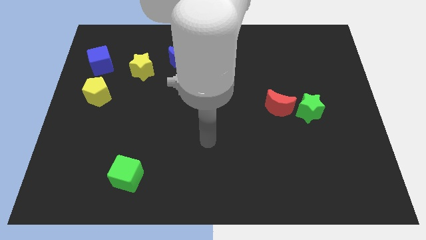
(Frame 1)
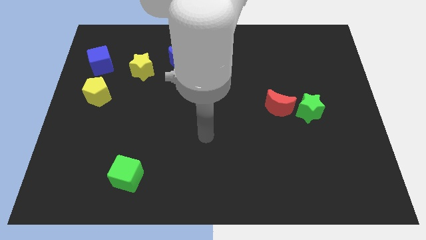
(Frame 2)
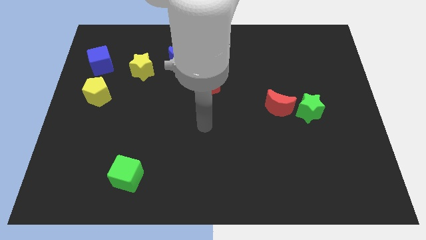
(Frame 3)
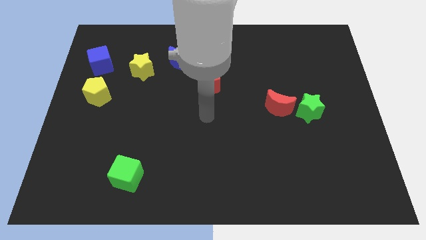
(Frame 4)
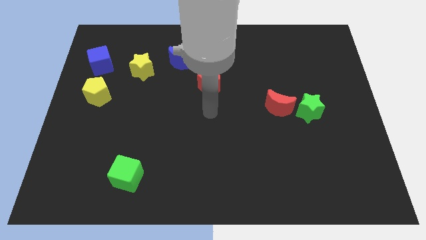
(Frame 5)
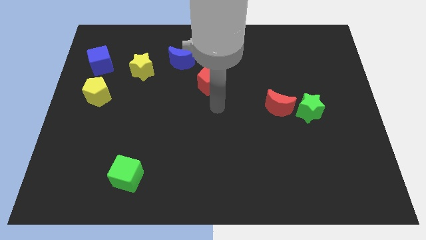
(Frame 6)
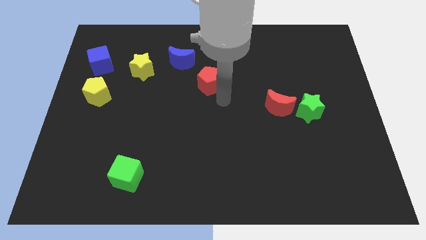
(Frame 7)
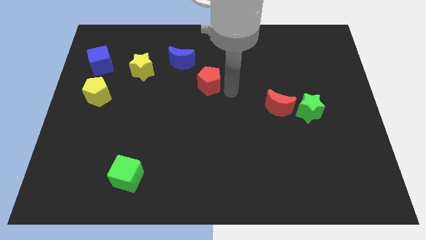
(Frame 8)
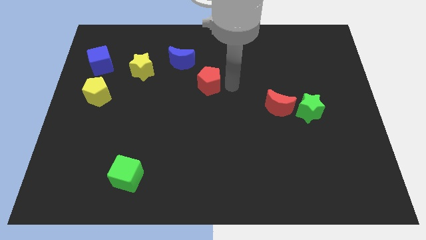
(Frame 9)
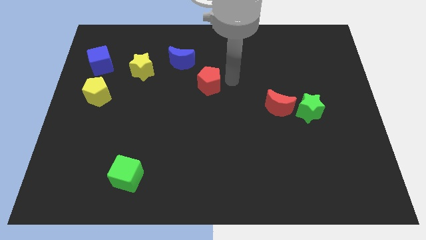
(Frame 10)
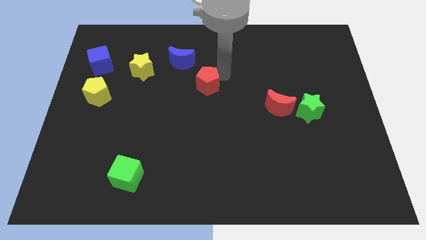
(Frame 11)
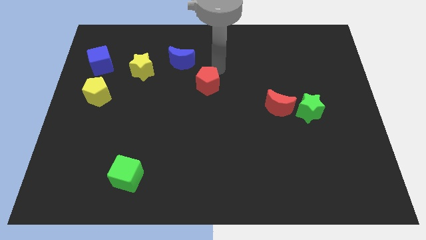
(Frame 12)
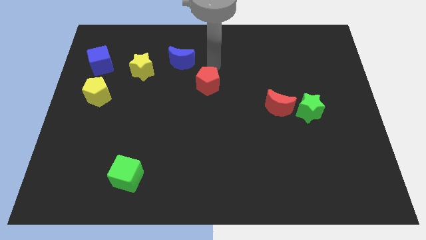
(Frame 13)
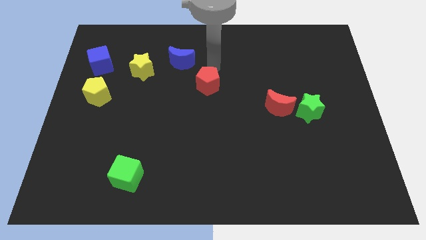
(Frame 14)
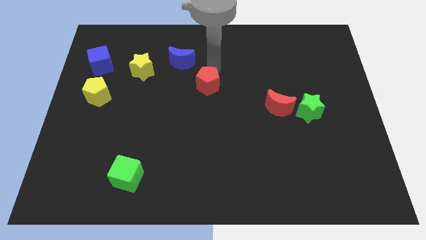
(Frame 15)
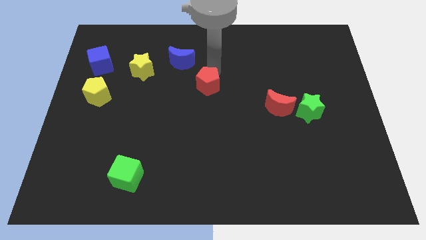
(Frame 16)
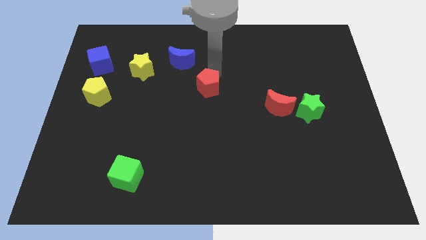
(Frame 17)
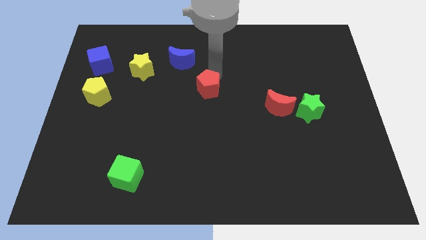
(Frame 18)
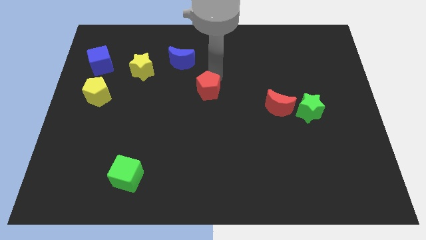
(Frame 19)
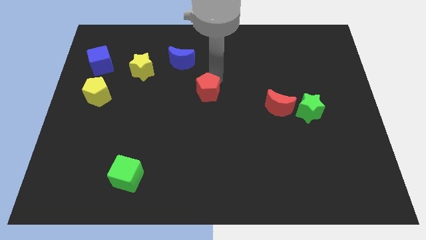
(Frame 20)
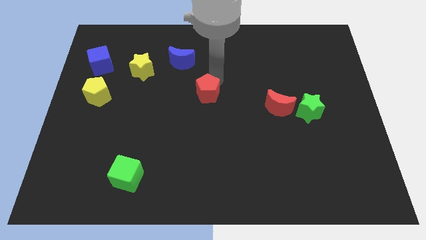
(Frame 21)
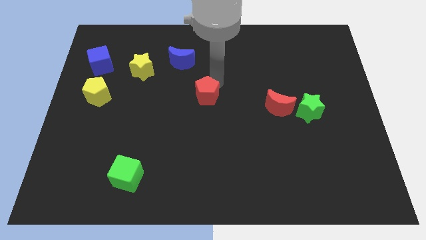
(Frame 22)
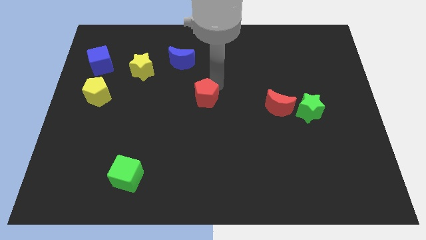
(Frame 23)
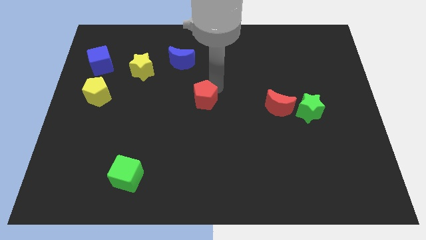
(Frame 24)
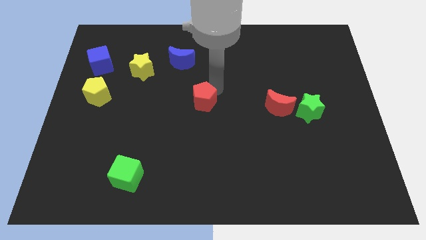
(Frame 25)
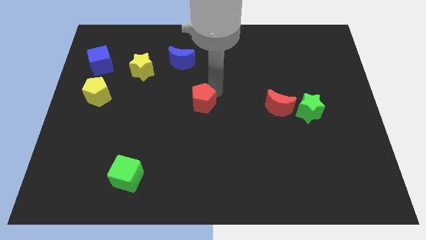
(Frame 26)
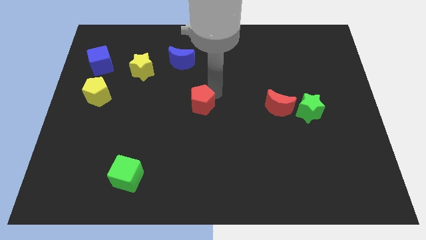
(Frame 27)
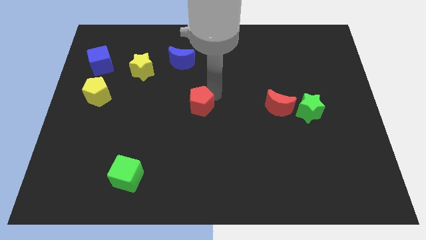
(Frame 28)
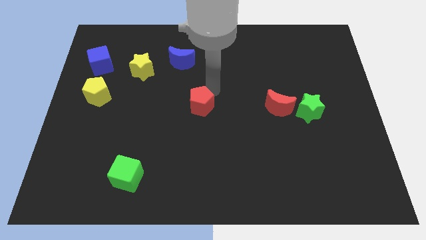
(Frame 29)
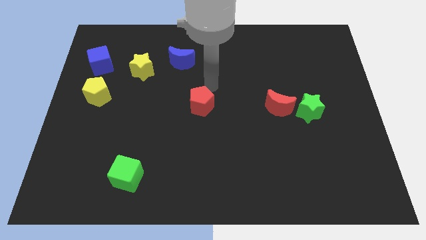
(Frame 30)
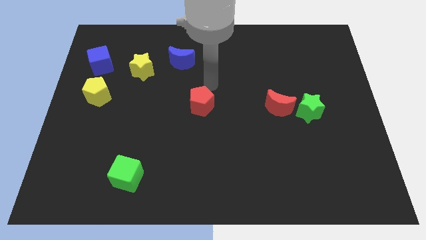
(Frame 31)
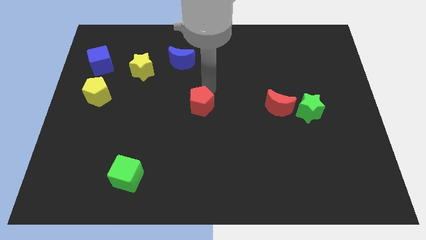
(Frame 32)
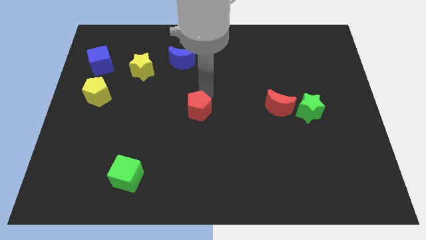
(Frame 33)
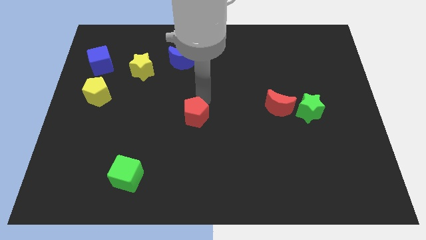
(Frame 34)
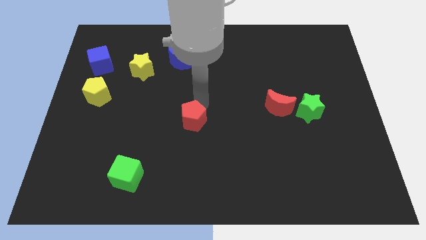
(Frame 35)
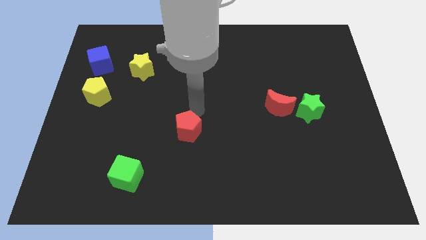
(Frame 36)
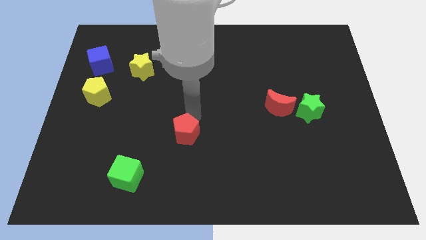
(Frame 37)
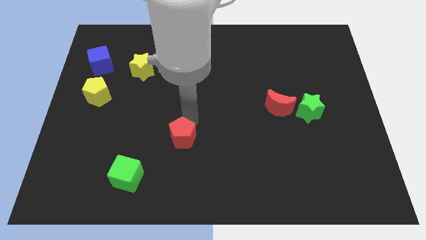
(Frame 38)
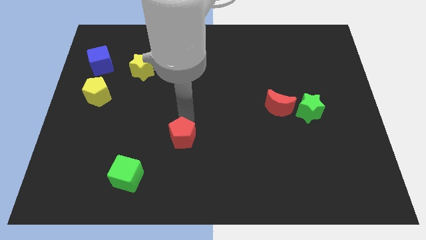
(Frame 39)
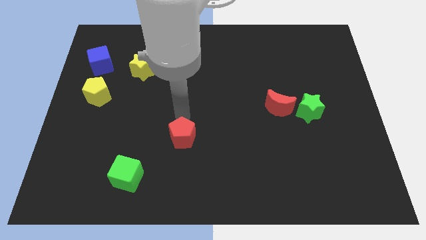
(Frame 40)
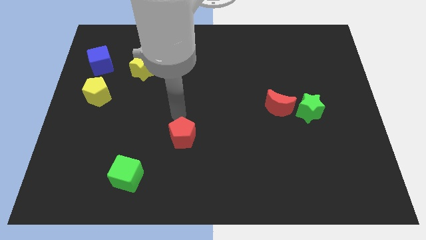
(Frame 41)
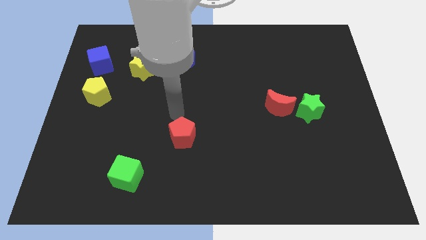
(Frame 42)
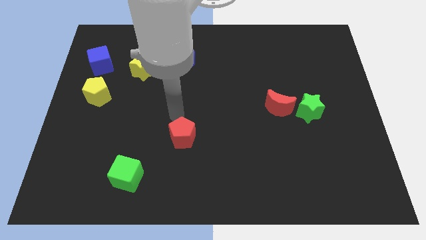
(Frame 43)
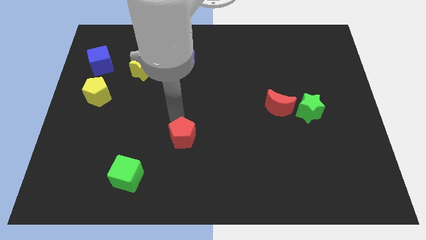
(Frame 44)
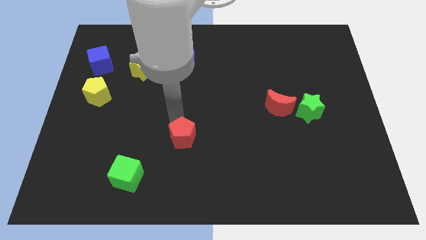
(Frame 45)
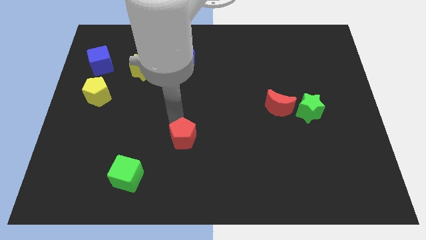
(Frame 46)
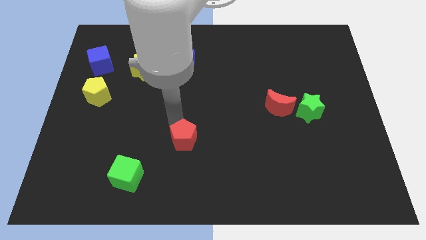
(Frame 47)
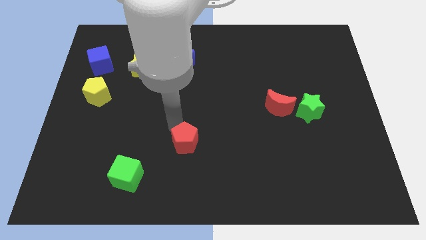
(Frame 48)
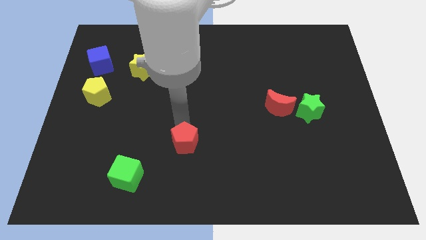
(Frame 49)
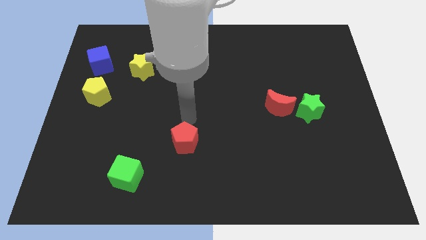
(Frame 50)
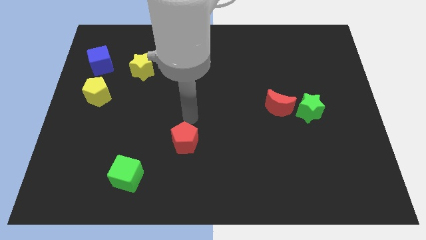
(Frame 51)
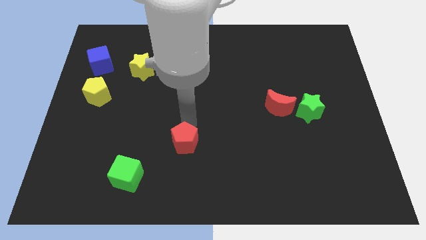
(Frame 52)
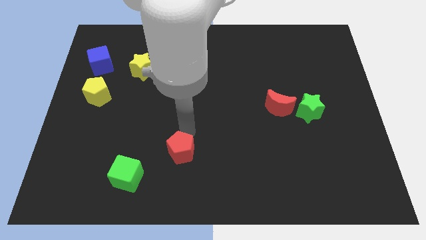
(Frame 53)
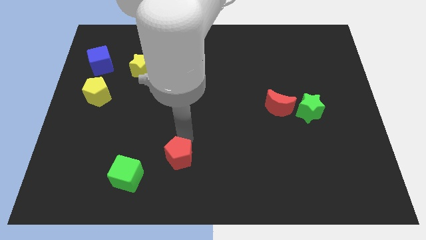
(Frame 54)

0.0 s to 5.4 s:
move the red pentagon to the right of the green cube

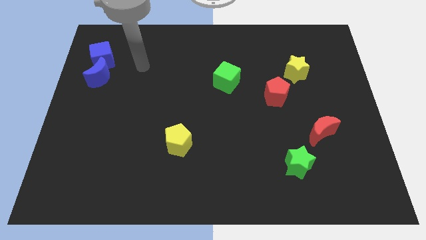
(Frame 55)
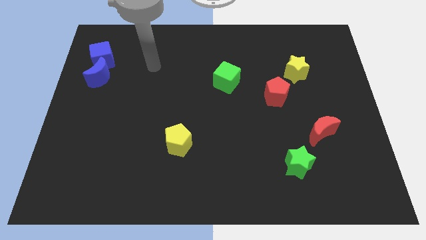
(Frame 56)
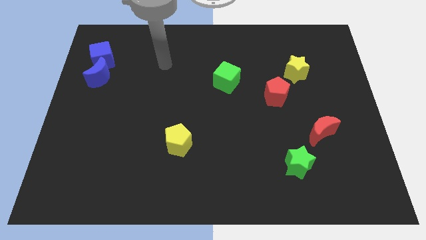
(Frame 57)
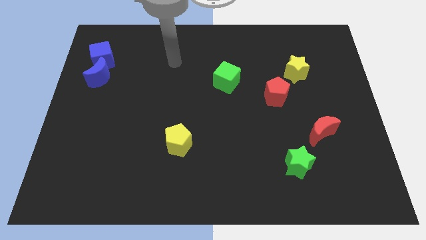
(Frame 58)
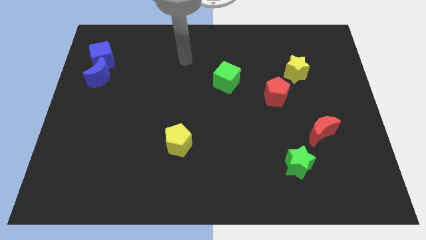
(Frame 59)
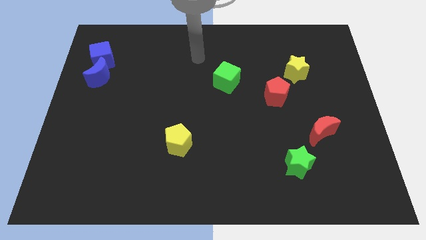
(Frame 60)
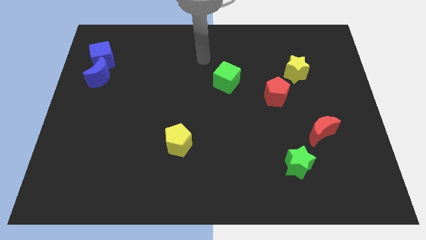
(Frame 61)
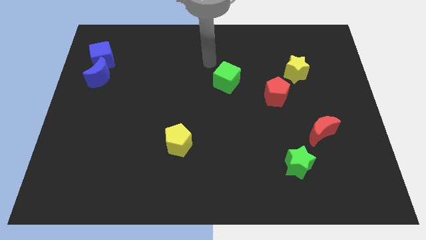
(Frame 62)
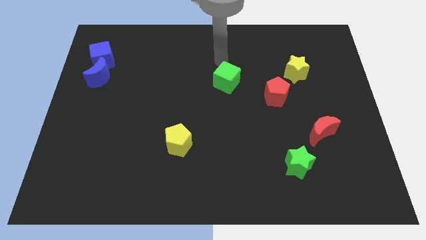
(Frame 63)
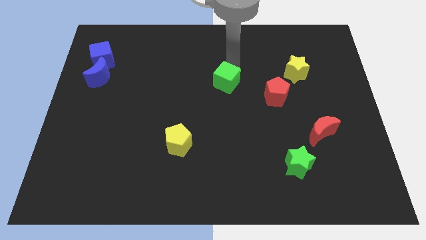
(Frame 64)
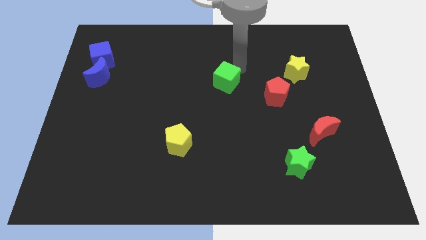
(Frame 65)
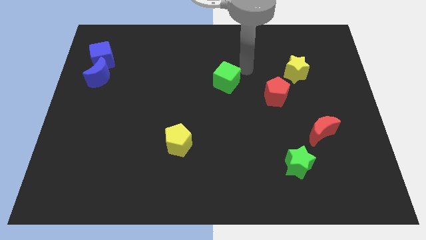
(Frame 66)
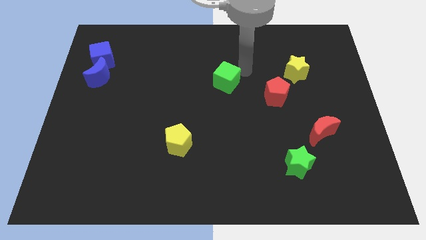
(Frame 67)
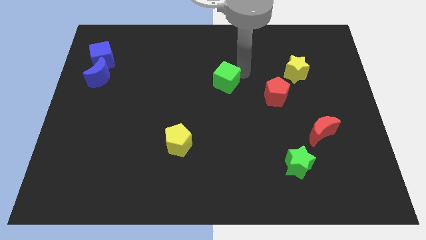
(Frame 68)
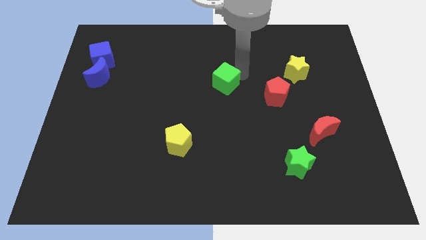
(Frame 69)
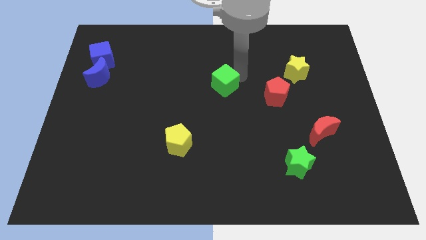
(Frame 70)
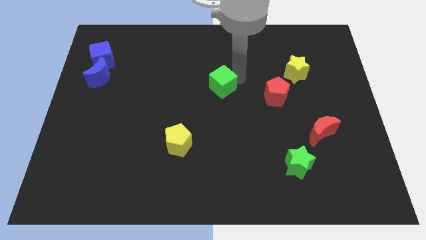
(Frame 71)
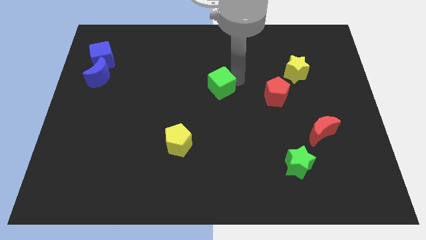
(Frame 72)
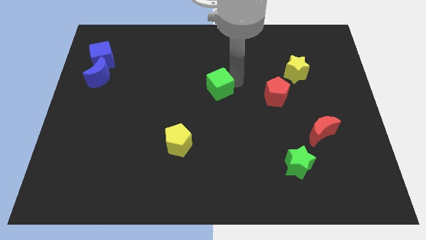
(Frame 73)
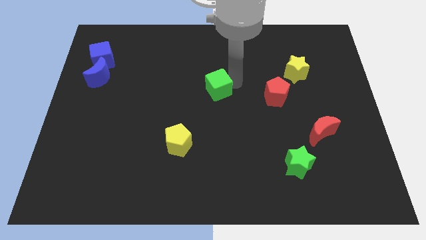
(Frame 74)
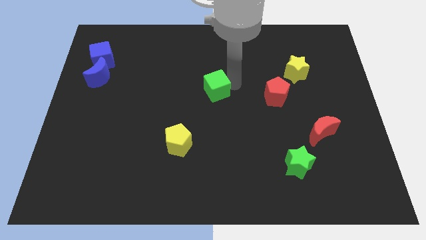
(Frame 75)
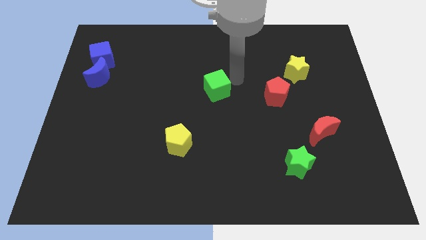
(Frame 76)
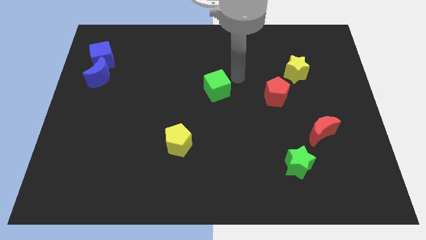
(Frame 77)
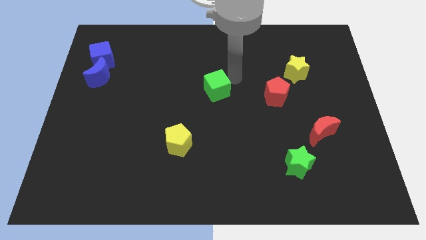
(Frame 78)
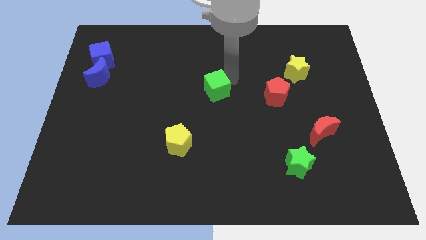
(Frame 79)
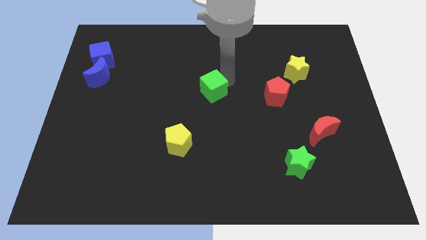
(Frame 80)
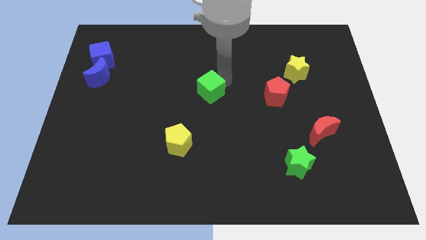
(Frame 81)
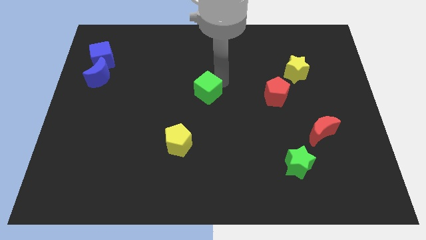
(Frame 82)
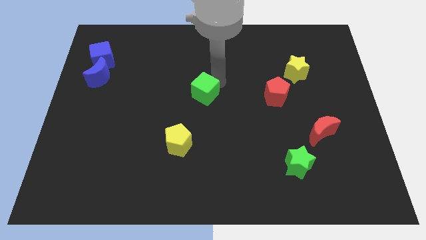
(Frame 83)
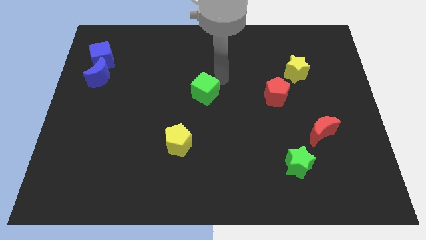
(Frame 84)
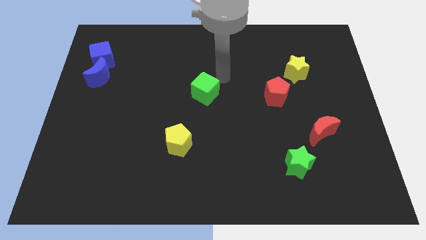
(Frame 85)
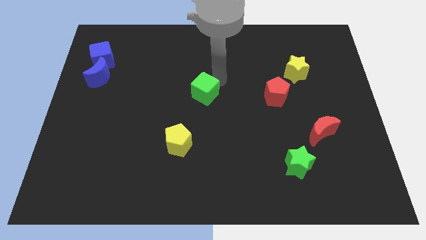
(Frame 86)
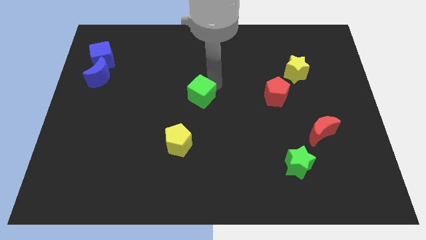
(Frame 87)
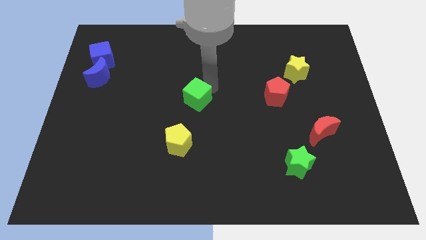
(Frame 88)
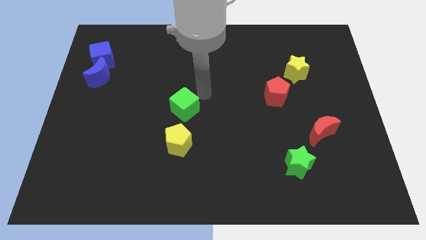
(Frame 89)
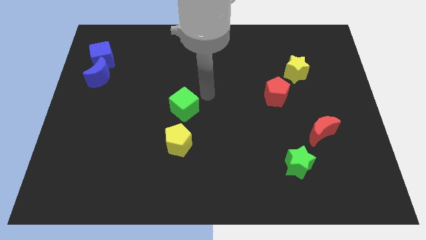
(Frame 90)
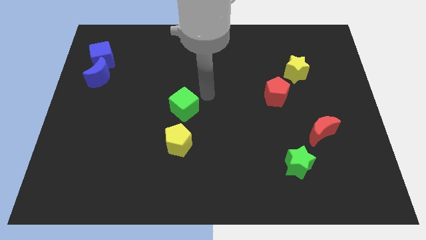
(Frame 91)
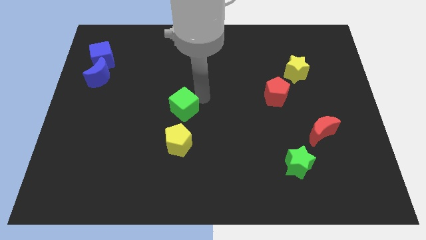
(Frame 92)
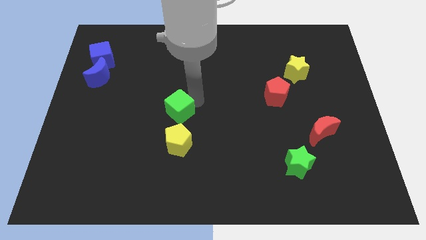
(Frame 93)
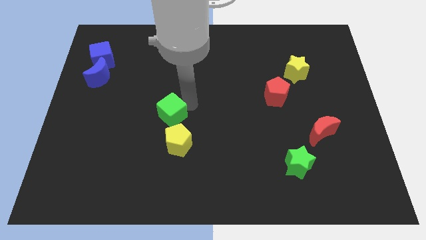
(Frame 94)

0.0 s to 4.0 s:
slide the green cube to the top left of the yellow pentagon
